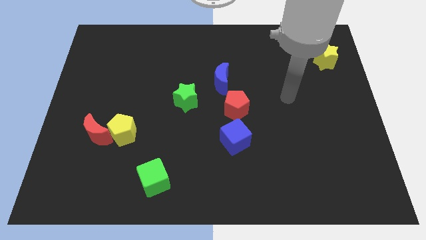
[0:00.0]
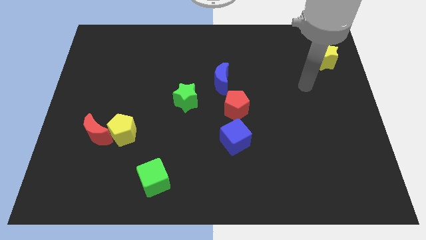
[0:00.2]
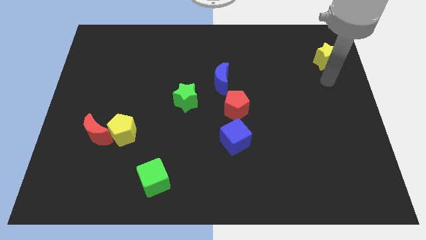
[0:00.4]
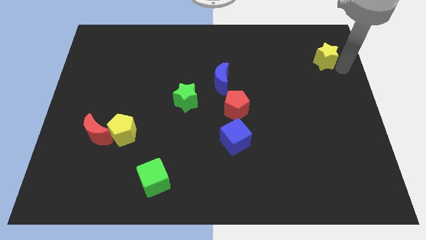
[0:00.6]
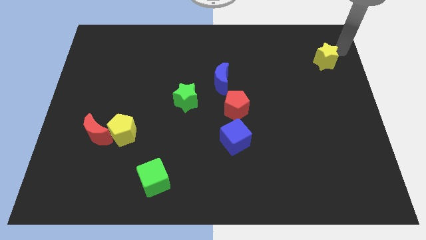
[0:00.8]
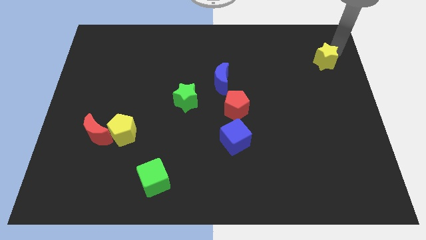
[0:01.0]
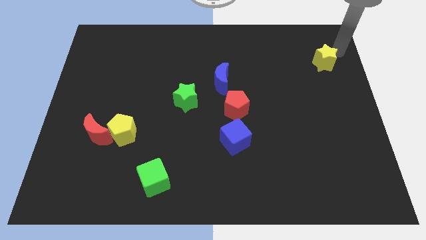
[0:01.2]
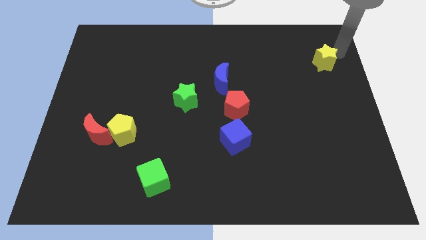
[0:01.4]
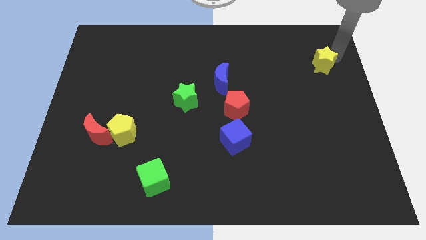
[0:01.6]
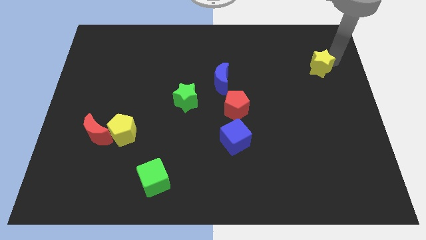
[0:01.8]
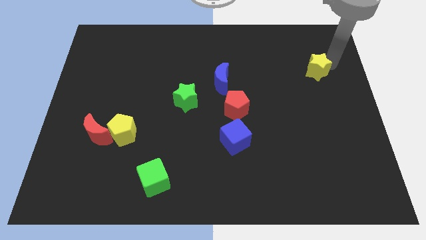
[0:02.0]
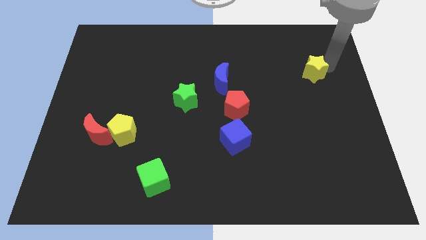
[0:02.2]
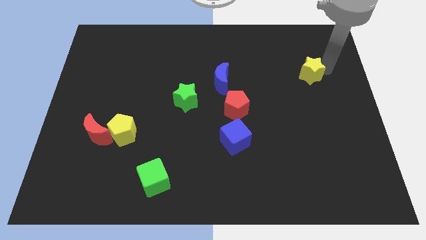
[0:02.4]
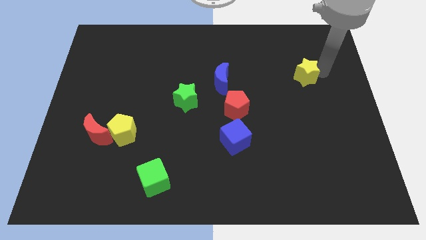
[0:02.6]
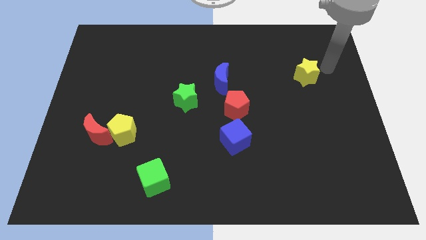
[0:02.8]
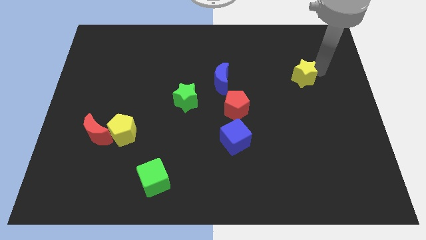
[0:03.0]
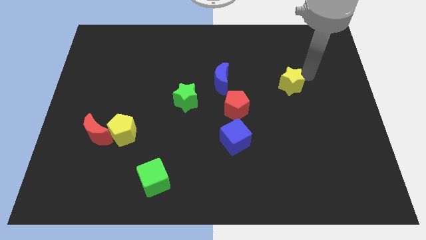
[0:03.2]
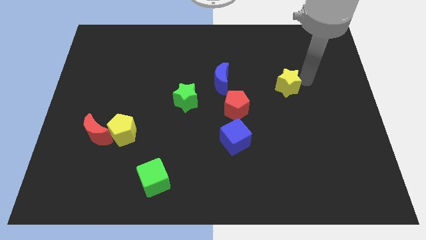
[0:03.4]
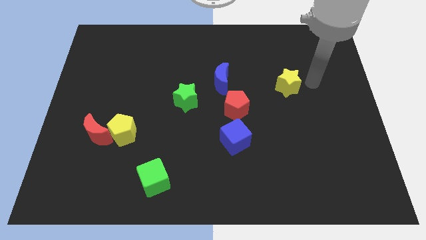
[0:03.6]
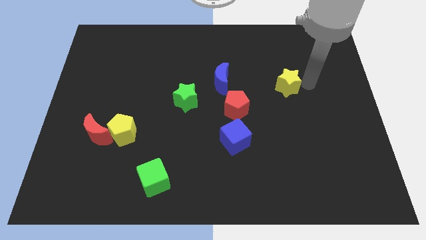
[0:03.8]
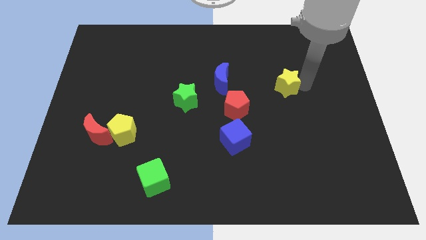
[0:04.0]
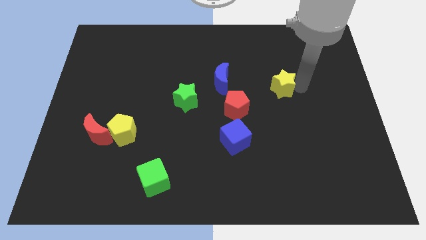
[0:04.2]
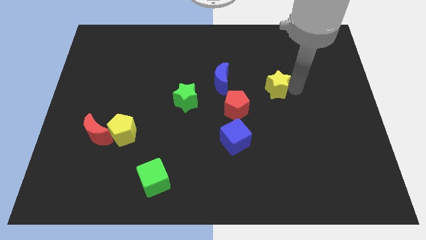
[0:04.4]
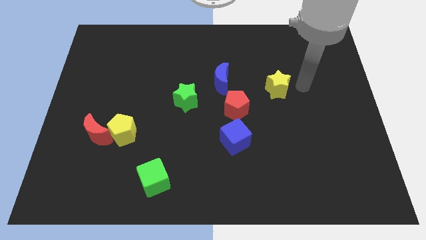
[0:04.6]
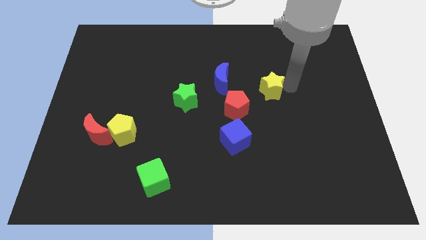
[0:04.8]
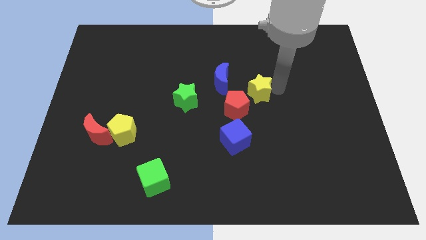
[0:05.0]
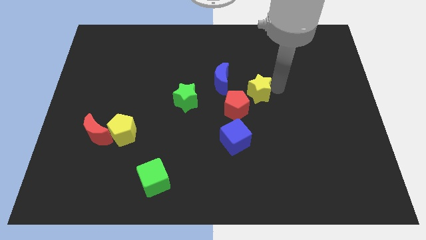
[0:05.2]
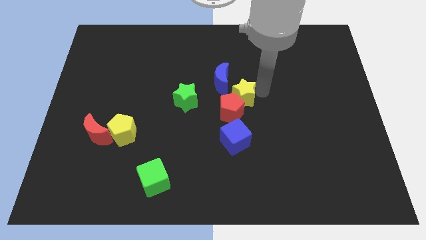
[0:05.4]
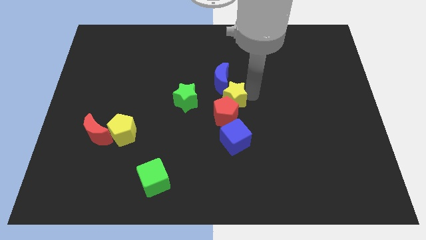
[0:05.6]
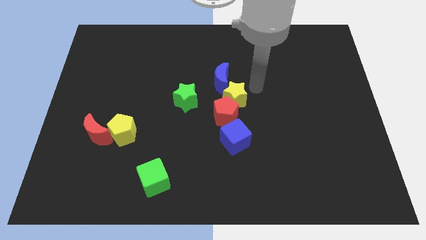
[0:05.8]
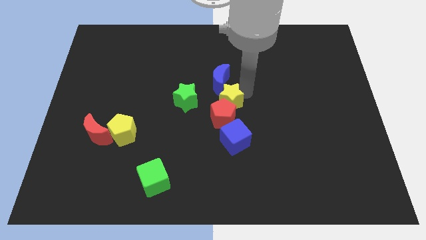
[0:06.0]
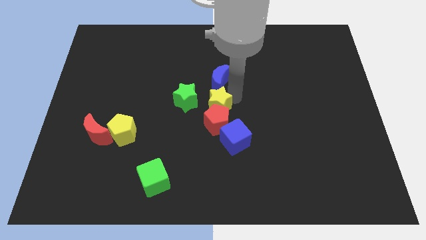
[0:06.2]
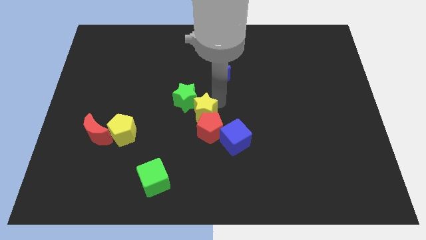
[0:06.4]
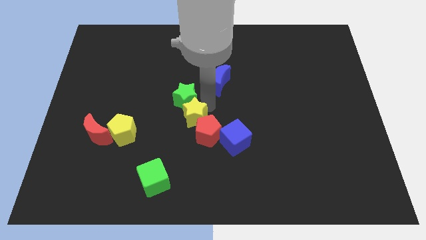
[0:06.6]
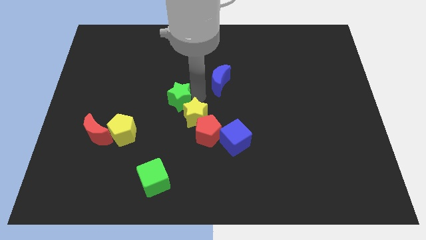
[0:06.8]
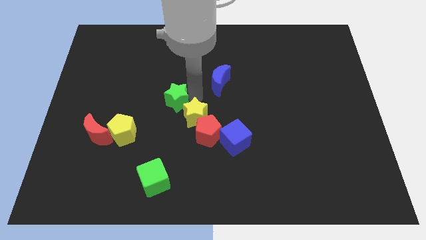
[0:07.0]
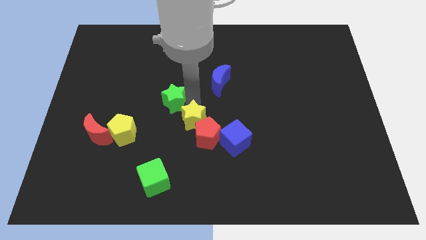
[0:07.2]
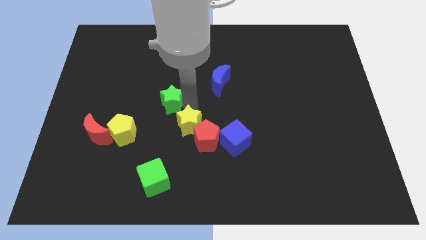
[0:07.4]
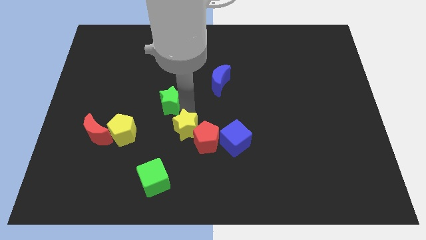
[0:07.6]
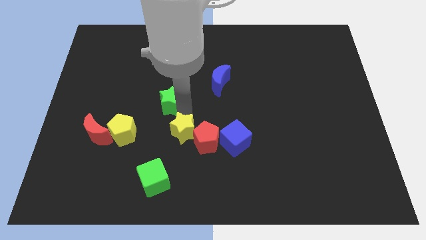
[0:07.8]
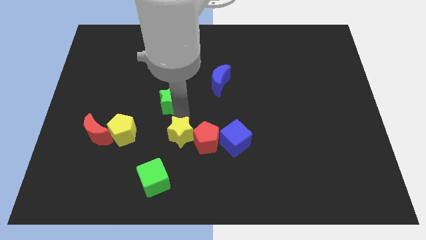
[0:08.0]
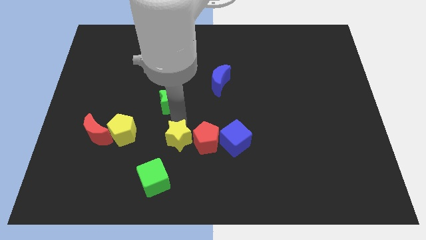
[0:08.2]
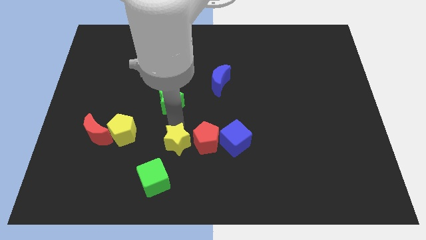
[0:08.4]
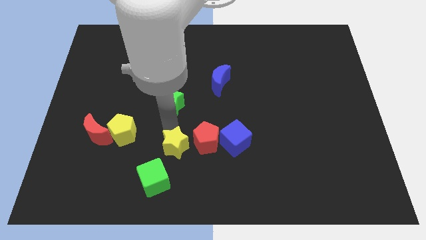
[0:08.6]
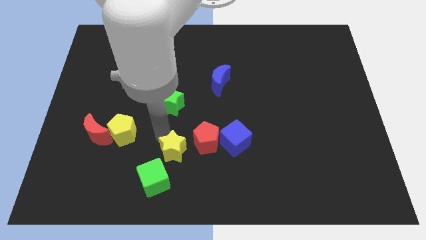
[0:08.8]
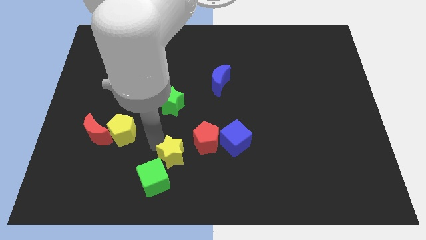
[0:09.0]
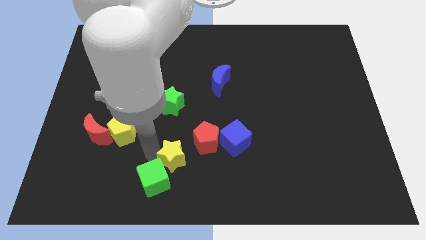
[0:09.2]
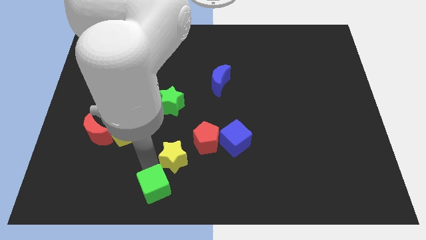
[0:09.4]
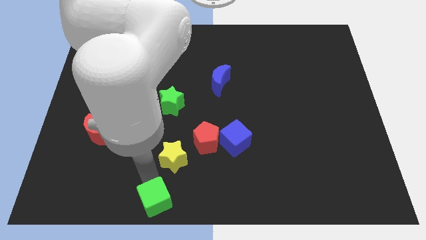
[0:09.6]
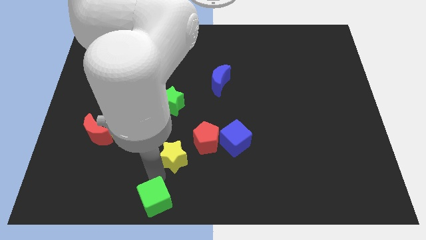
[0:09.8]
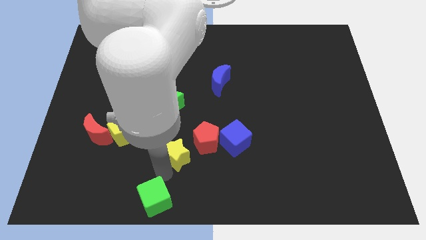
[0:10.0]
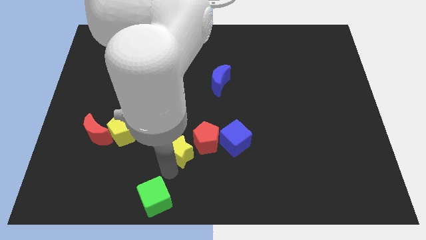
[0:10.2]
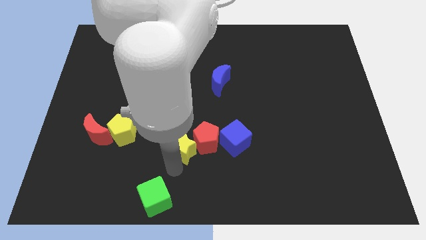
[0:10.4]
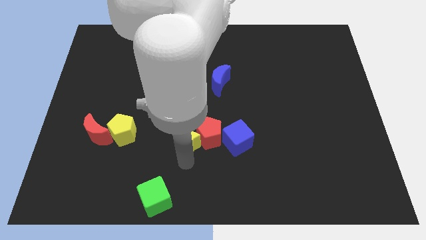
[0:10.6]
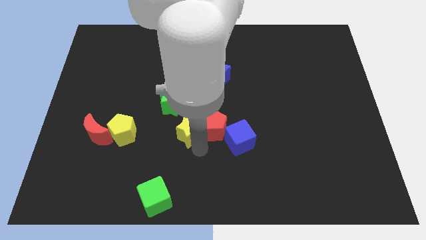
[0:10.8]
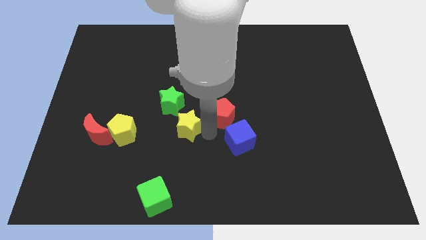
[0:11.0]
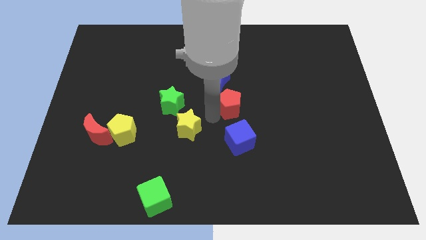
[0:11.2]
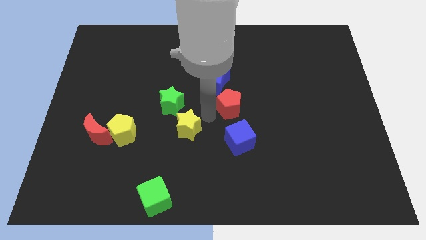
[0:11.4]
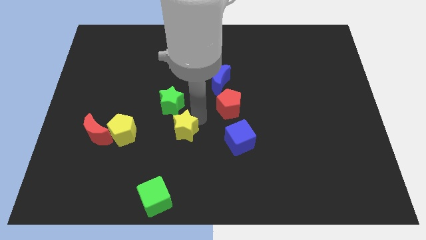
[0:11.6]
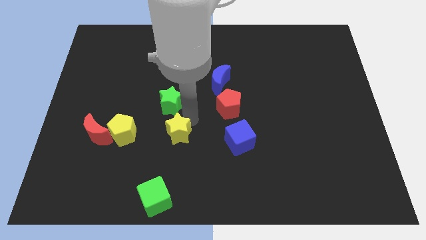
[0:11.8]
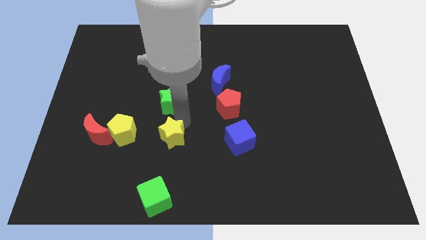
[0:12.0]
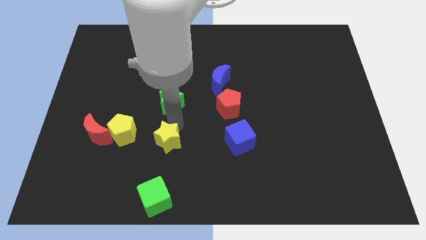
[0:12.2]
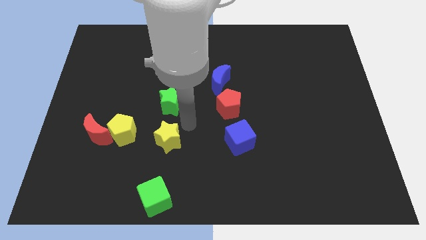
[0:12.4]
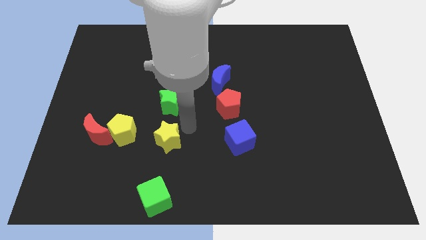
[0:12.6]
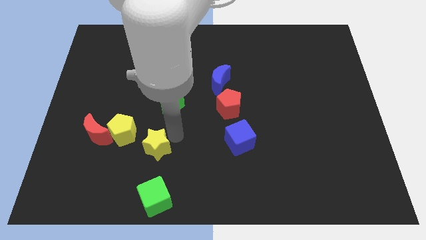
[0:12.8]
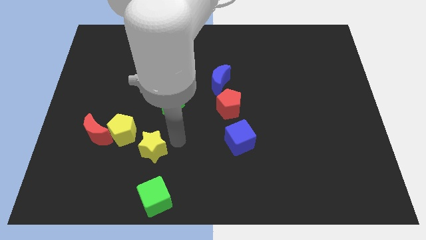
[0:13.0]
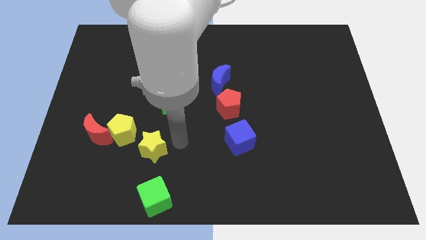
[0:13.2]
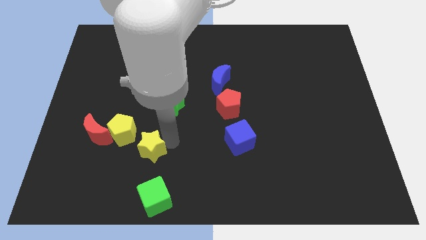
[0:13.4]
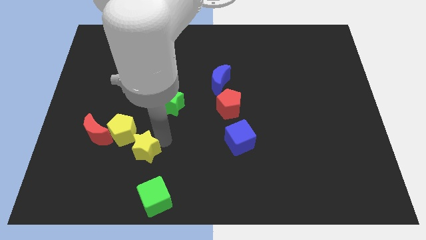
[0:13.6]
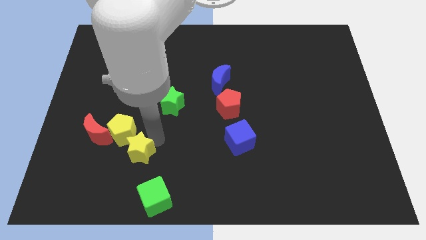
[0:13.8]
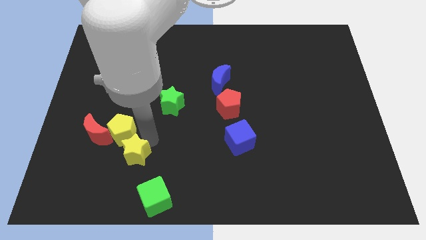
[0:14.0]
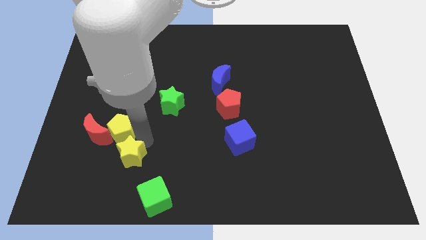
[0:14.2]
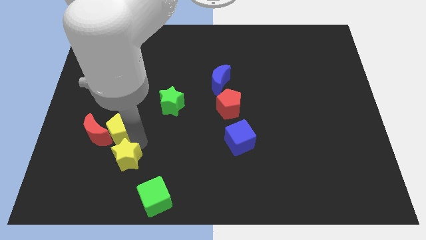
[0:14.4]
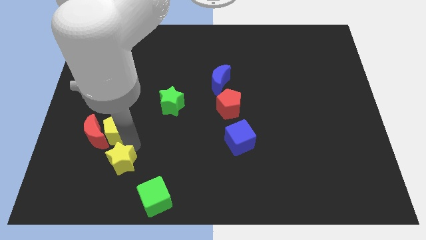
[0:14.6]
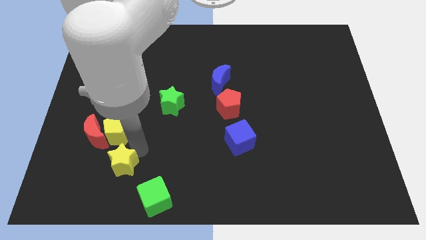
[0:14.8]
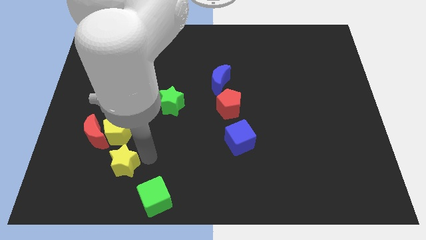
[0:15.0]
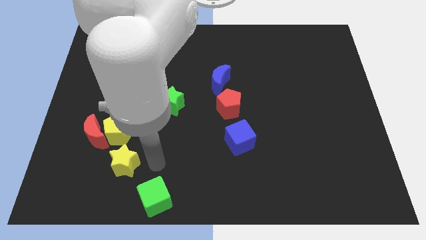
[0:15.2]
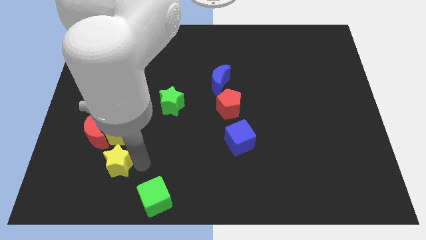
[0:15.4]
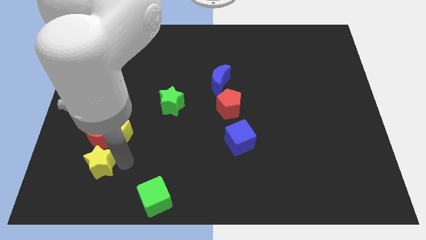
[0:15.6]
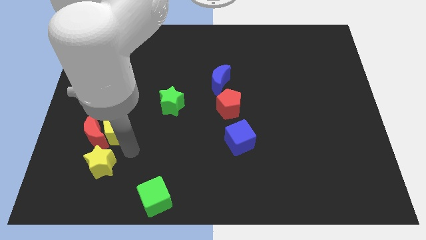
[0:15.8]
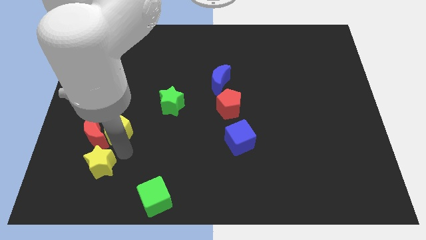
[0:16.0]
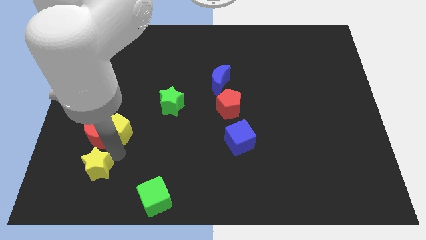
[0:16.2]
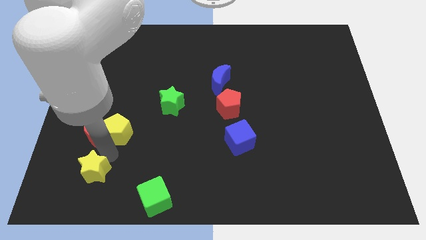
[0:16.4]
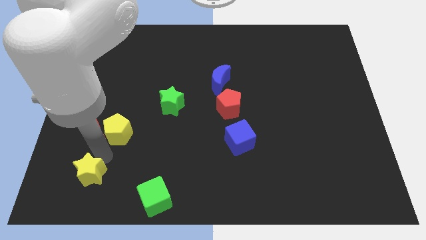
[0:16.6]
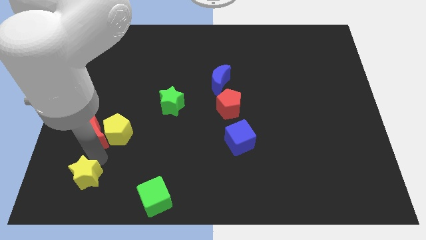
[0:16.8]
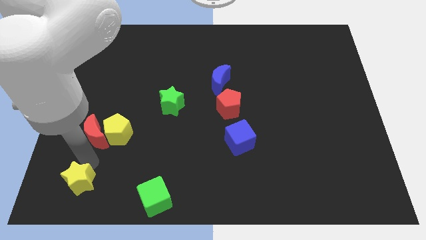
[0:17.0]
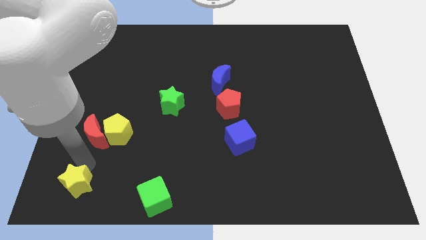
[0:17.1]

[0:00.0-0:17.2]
put the yellow star to the bottom left of the board
